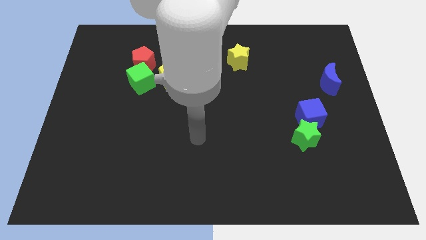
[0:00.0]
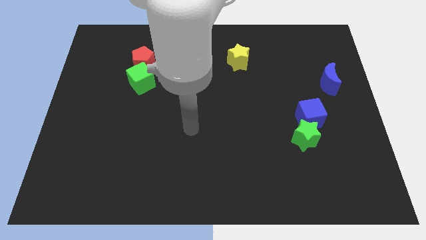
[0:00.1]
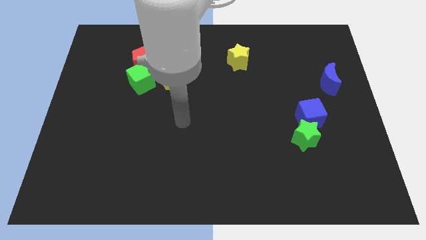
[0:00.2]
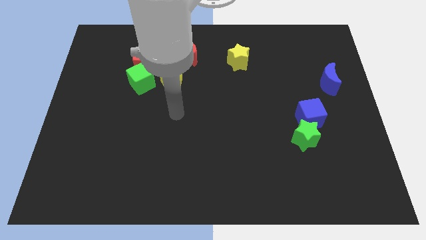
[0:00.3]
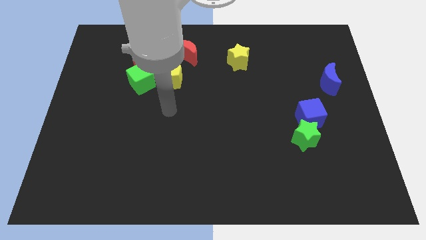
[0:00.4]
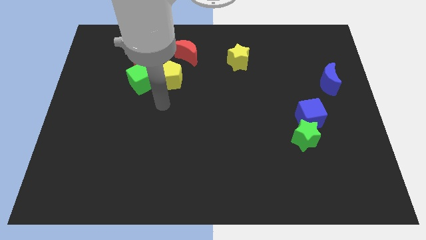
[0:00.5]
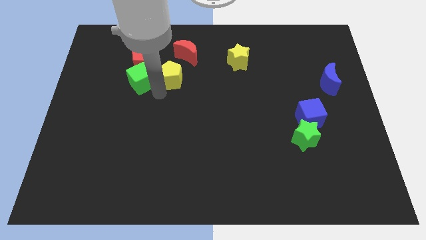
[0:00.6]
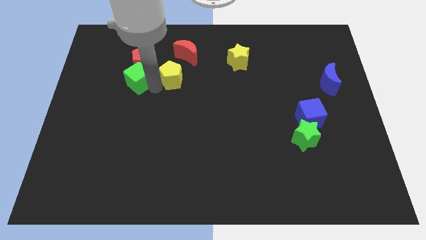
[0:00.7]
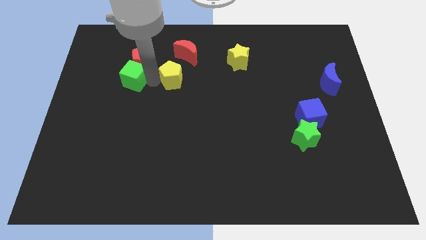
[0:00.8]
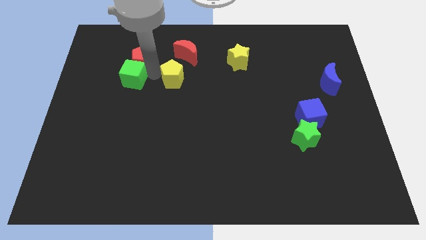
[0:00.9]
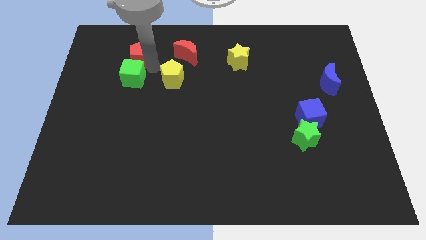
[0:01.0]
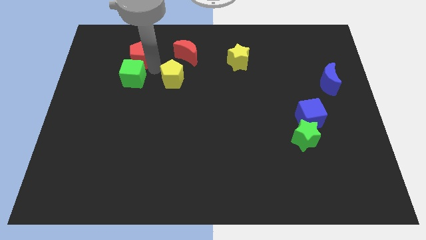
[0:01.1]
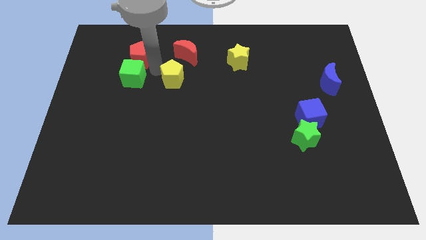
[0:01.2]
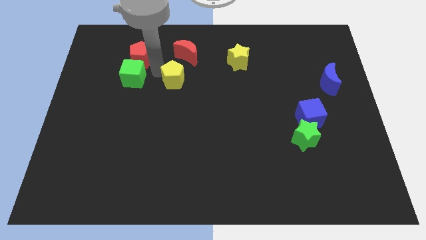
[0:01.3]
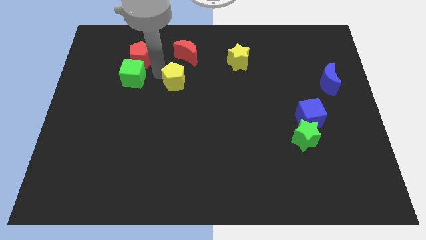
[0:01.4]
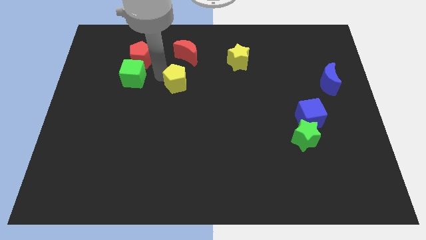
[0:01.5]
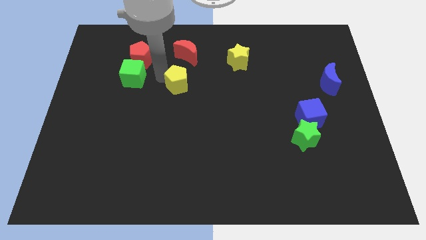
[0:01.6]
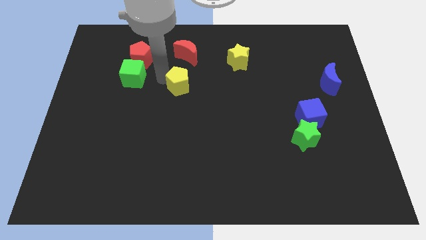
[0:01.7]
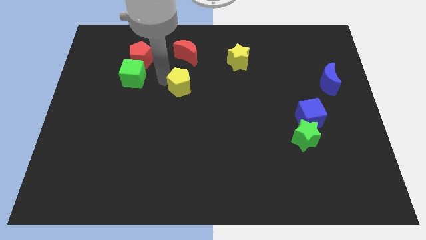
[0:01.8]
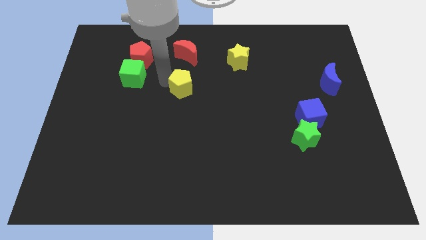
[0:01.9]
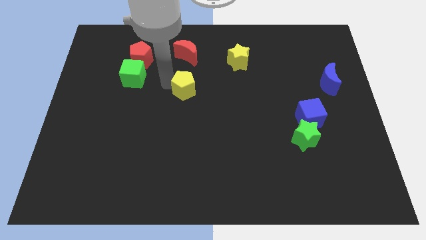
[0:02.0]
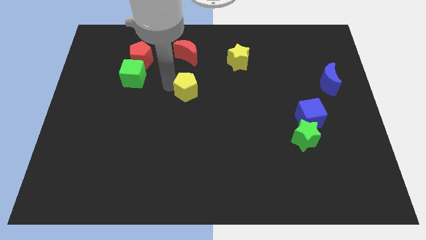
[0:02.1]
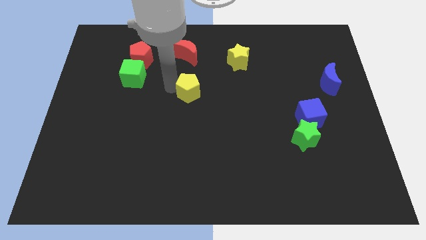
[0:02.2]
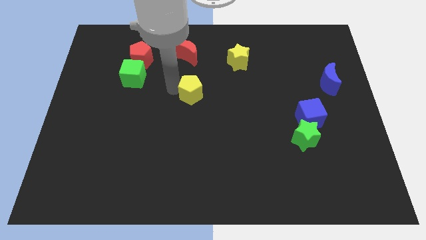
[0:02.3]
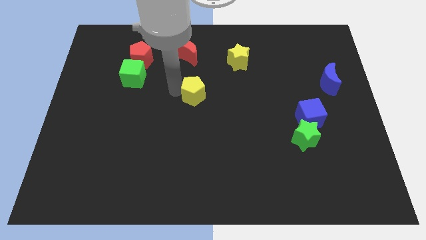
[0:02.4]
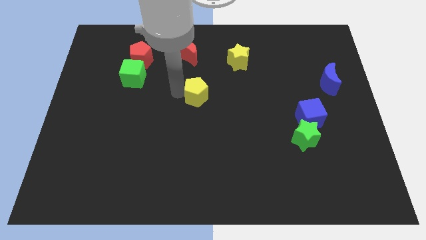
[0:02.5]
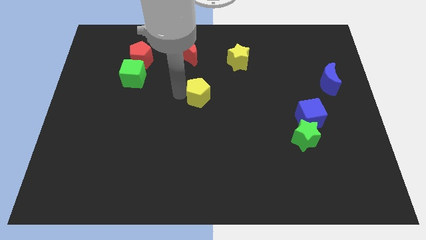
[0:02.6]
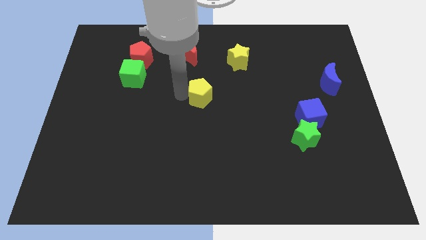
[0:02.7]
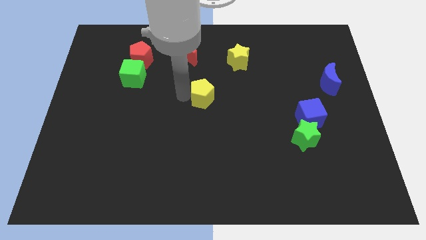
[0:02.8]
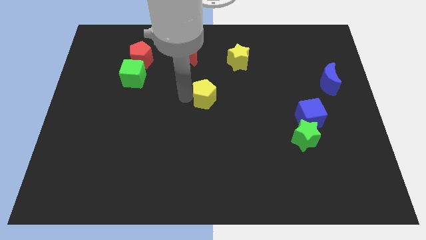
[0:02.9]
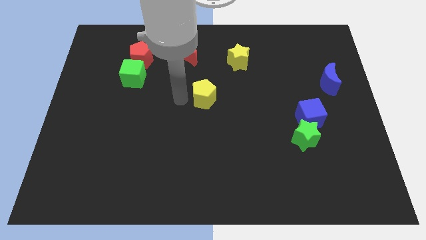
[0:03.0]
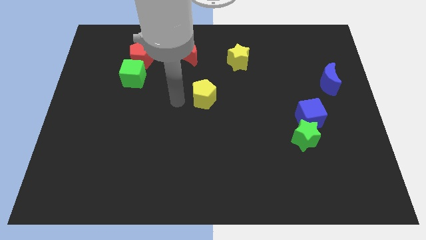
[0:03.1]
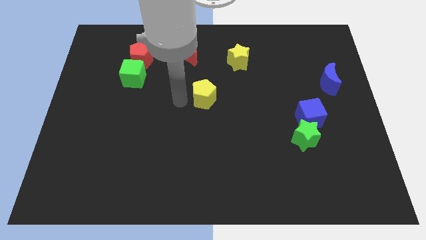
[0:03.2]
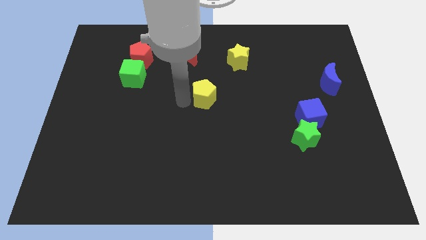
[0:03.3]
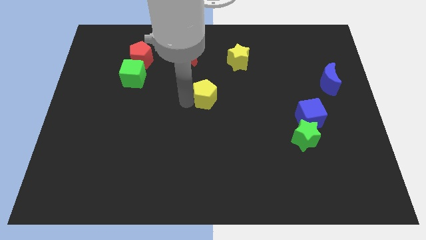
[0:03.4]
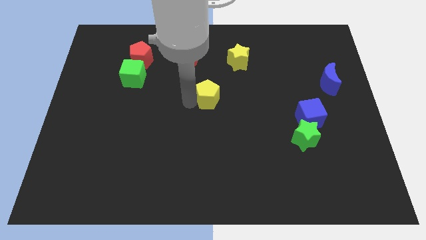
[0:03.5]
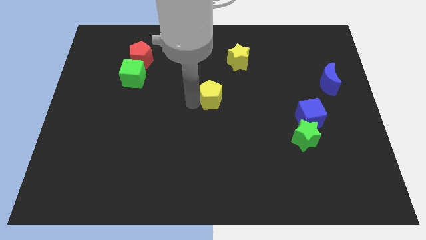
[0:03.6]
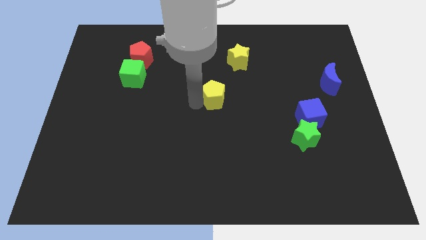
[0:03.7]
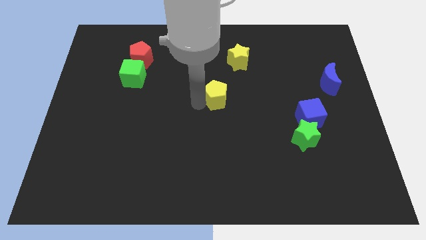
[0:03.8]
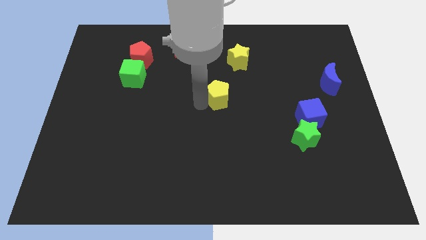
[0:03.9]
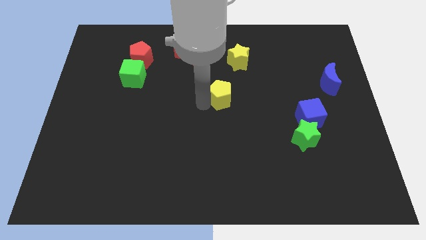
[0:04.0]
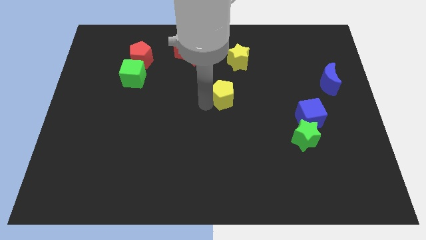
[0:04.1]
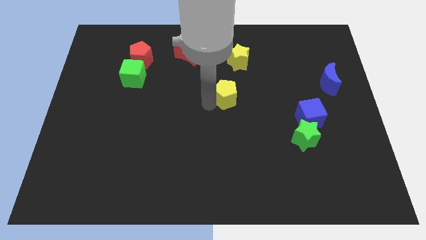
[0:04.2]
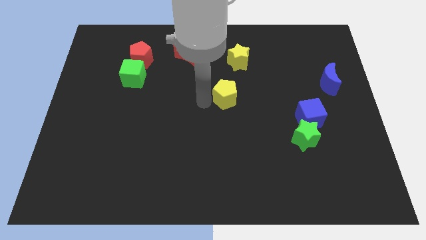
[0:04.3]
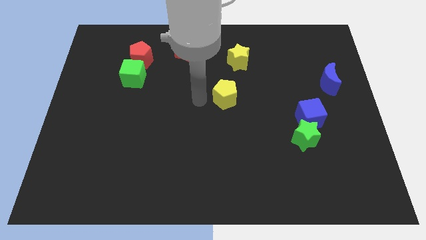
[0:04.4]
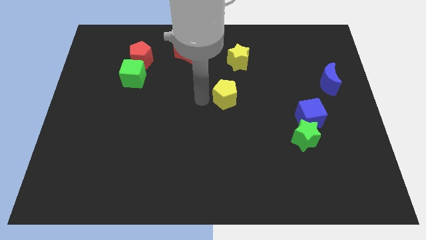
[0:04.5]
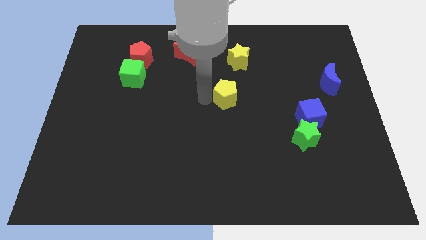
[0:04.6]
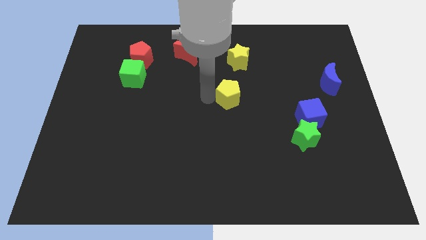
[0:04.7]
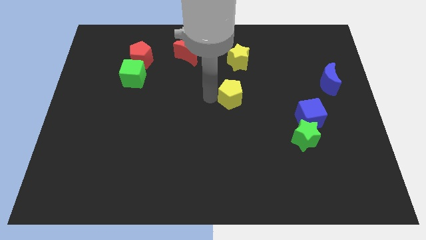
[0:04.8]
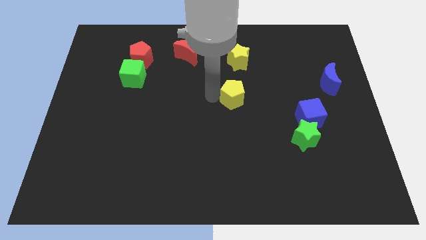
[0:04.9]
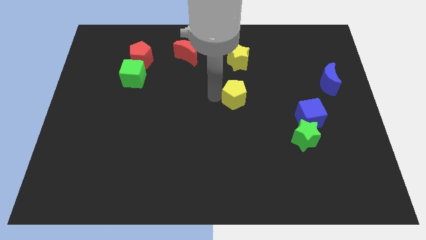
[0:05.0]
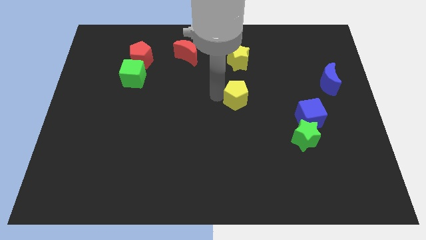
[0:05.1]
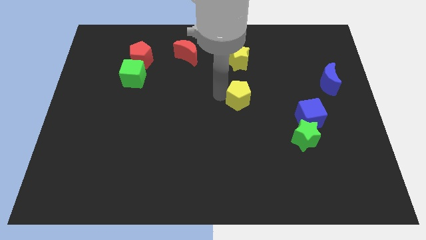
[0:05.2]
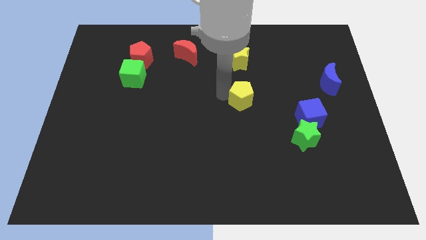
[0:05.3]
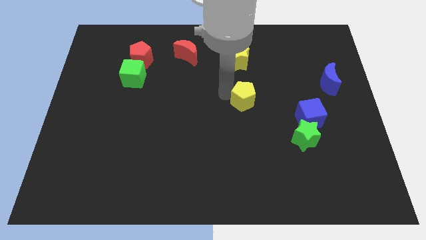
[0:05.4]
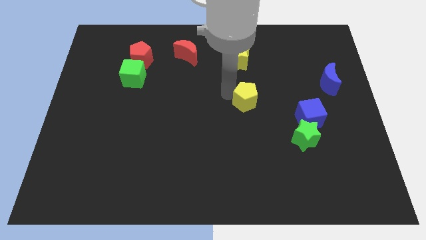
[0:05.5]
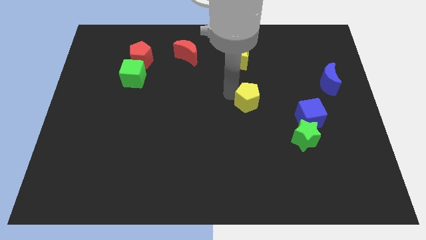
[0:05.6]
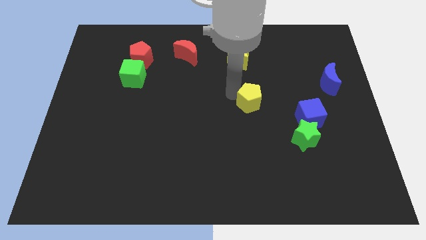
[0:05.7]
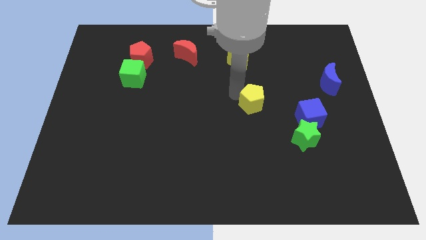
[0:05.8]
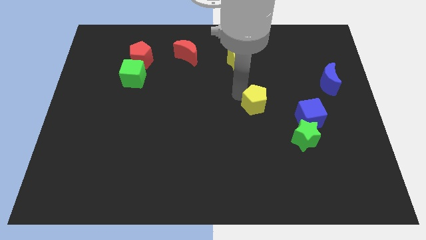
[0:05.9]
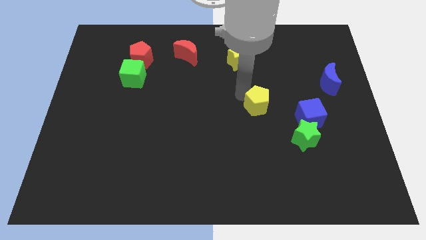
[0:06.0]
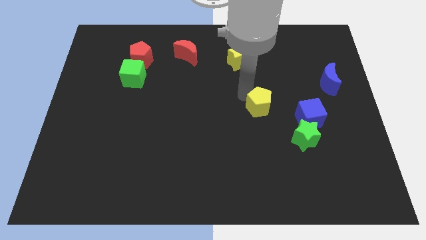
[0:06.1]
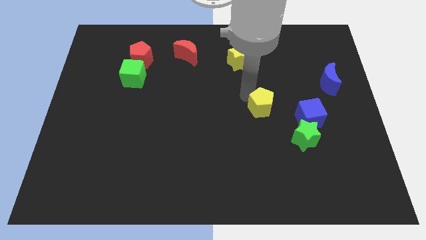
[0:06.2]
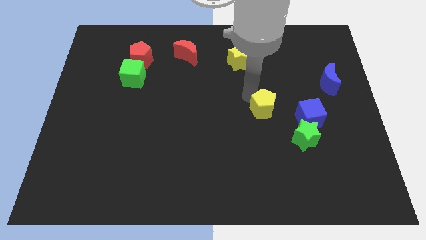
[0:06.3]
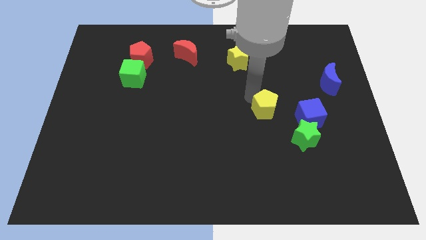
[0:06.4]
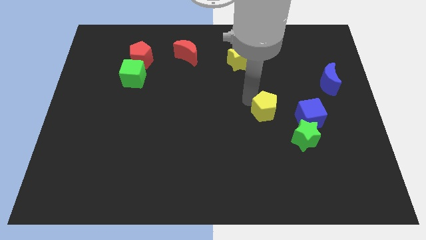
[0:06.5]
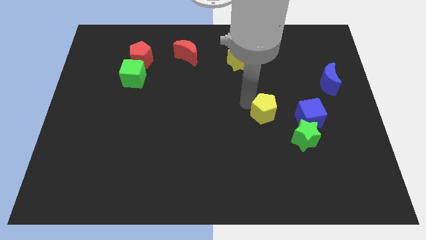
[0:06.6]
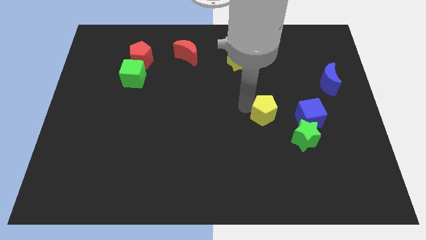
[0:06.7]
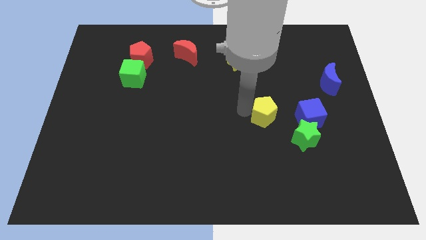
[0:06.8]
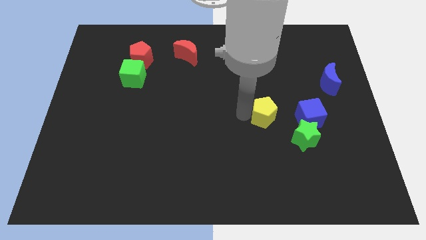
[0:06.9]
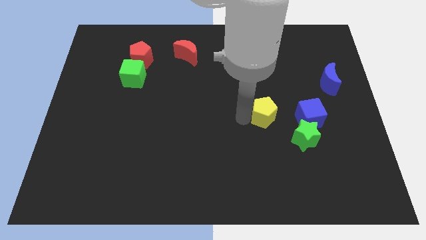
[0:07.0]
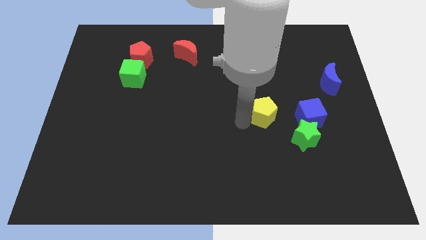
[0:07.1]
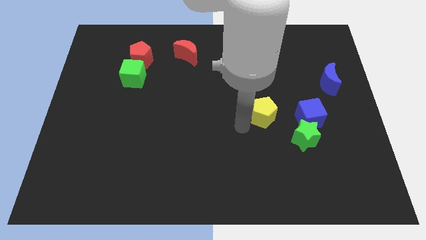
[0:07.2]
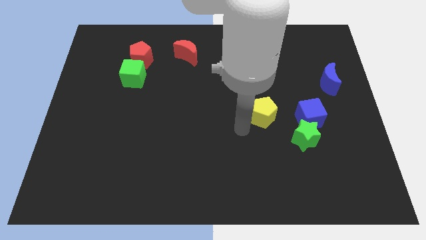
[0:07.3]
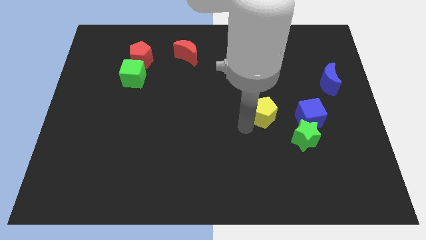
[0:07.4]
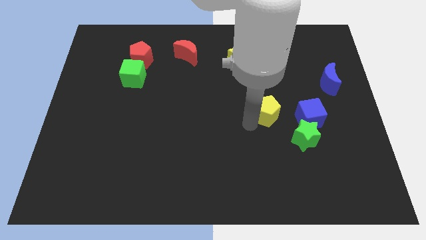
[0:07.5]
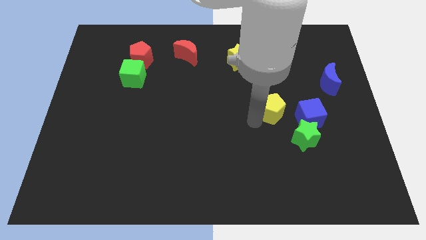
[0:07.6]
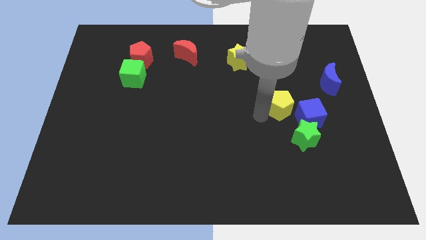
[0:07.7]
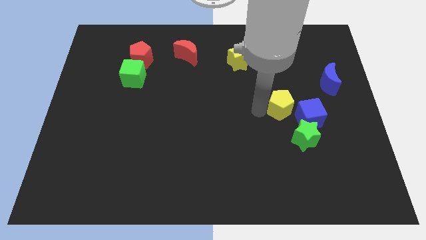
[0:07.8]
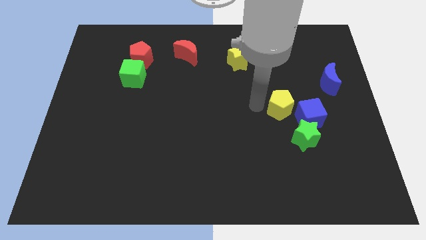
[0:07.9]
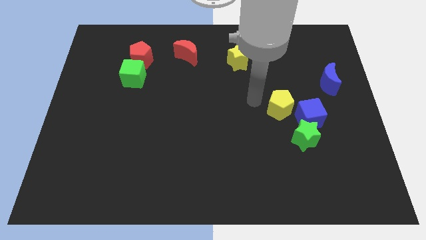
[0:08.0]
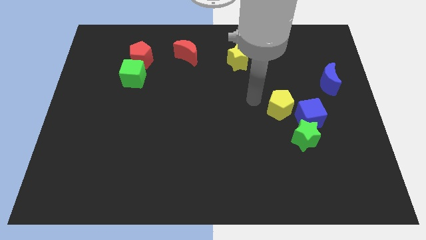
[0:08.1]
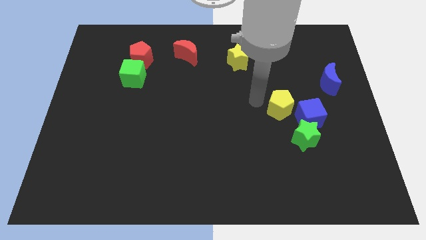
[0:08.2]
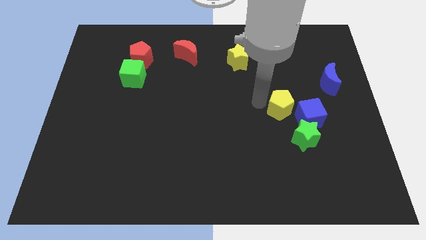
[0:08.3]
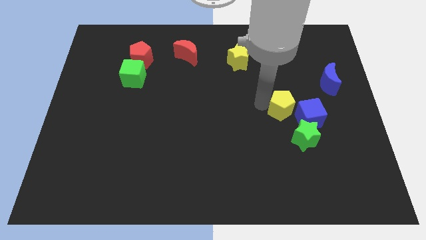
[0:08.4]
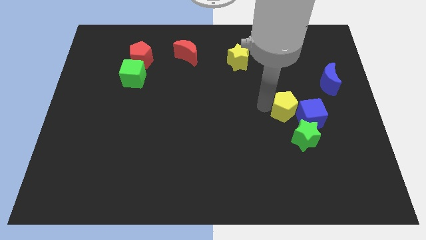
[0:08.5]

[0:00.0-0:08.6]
slide the yellow pentagon close to the blue cube

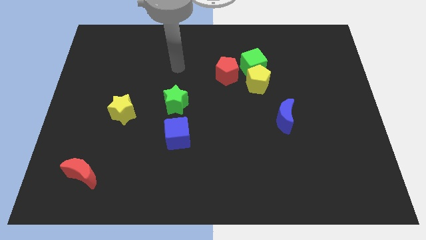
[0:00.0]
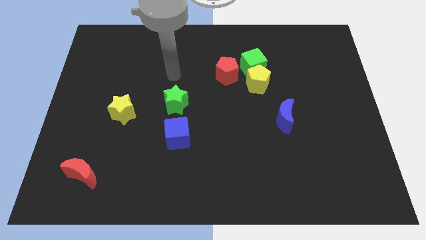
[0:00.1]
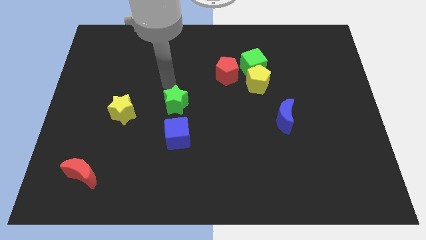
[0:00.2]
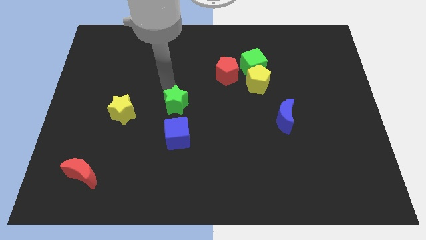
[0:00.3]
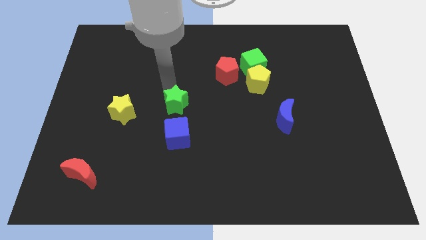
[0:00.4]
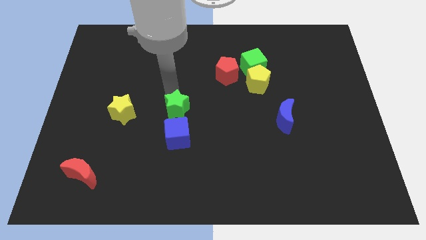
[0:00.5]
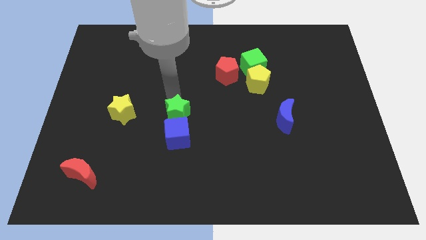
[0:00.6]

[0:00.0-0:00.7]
move the green star next to the blue cube
